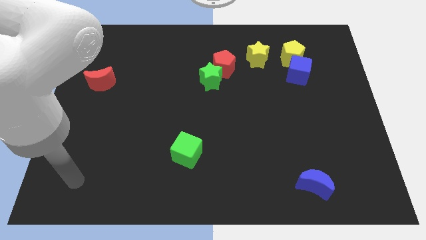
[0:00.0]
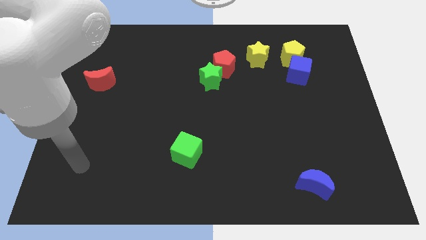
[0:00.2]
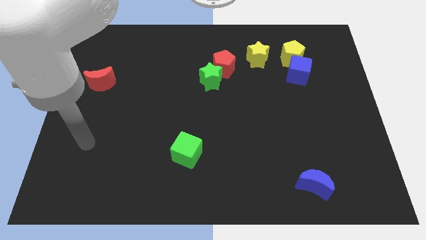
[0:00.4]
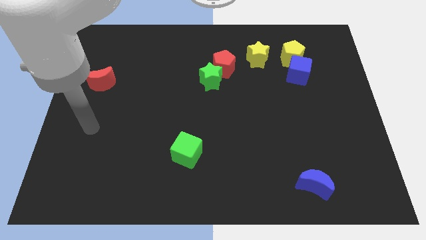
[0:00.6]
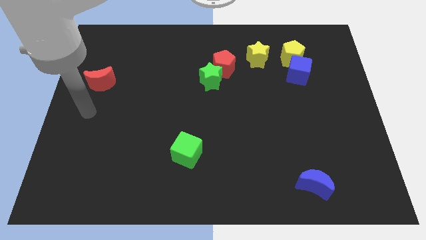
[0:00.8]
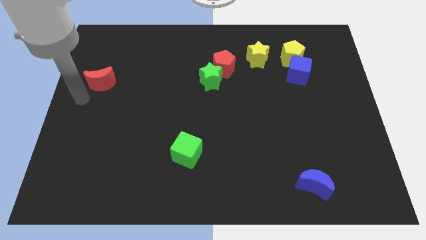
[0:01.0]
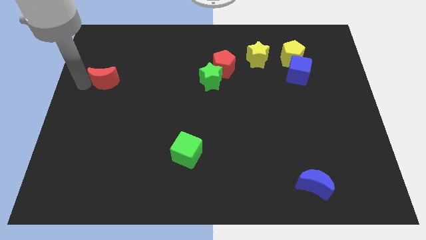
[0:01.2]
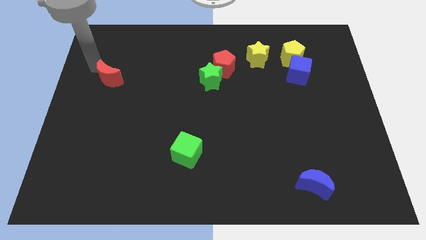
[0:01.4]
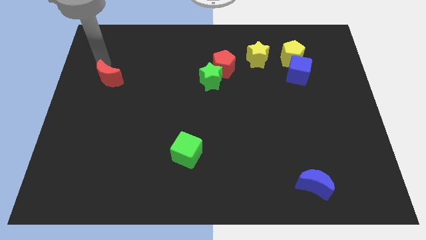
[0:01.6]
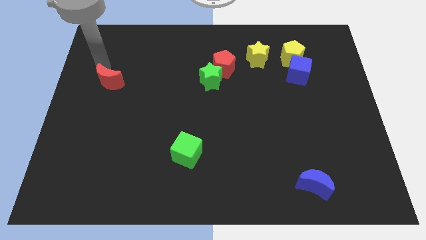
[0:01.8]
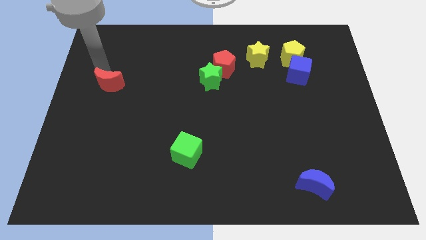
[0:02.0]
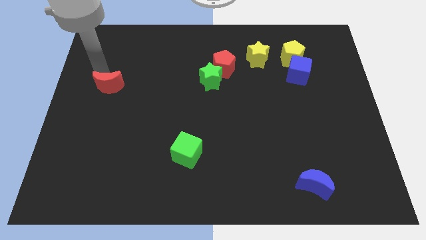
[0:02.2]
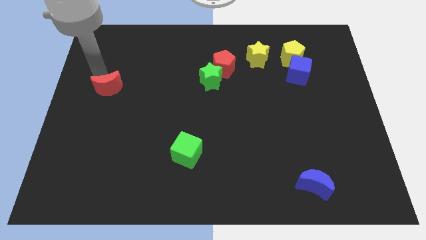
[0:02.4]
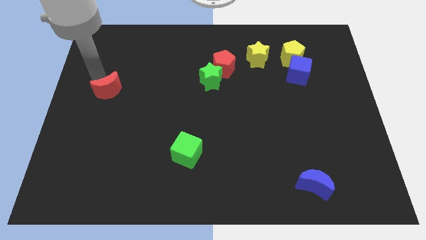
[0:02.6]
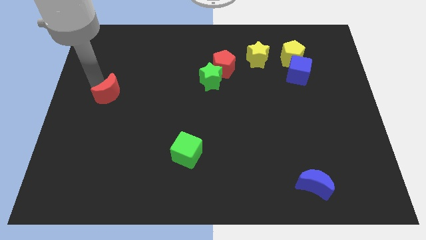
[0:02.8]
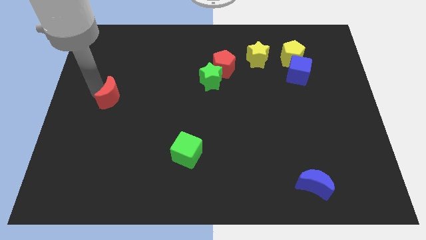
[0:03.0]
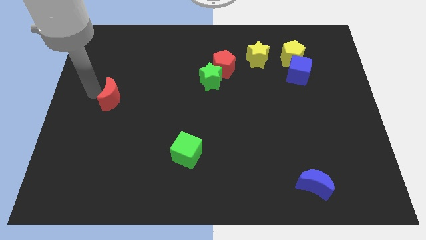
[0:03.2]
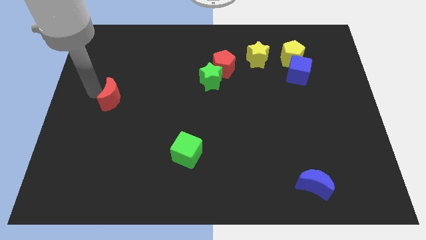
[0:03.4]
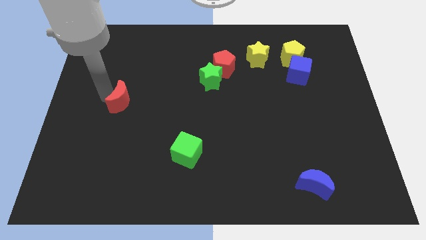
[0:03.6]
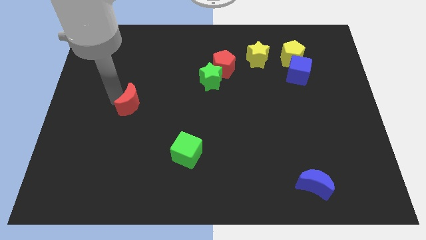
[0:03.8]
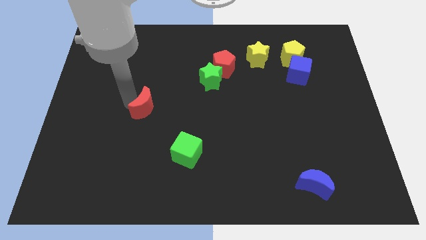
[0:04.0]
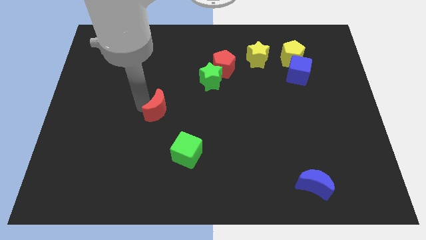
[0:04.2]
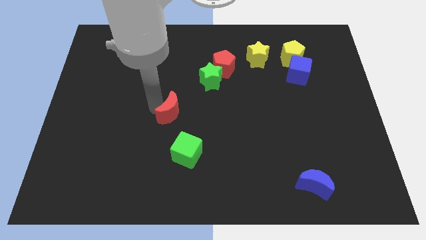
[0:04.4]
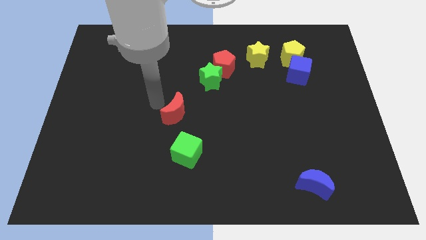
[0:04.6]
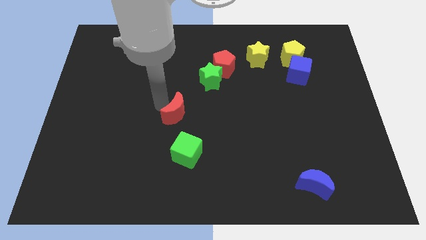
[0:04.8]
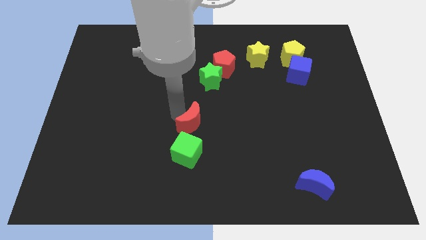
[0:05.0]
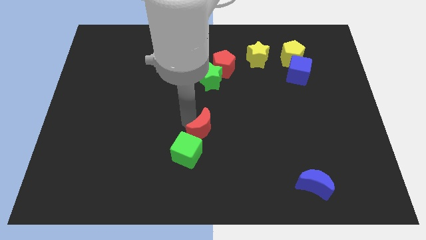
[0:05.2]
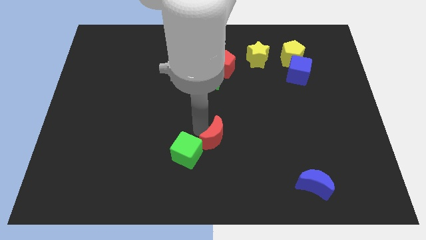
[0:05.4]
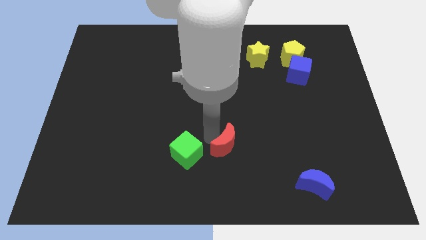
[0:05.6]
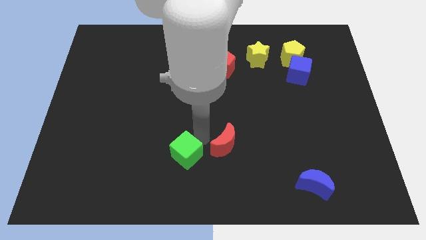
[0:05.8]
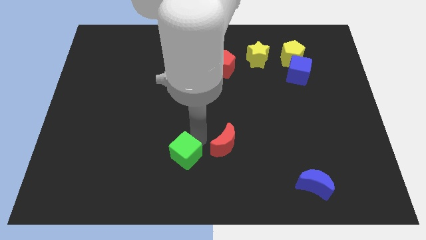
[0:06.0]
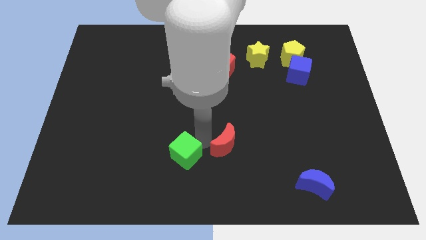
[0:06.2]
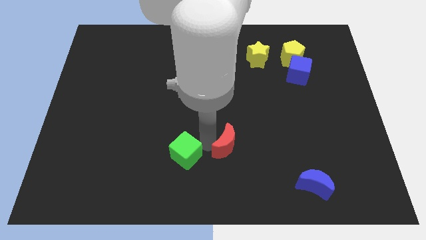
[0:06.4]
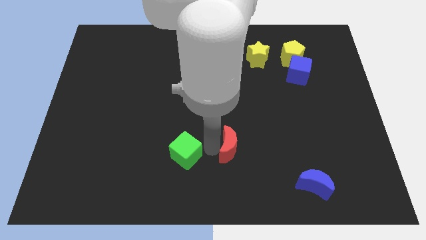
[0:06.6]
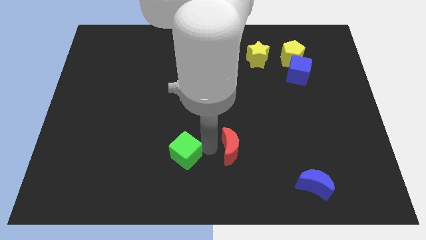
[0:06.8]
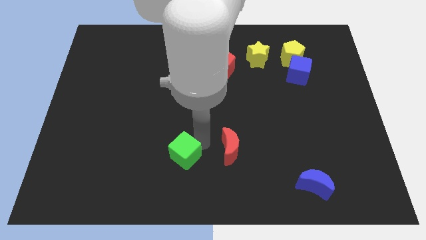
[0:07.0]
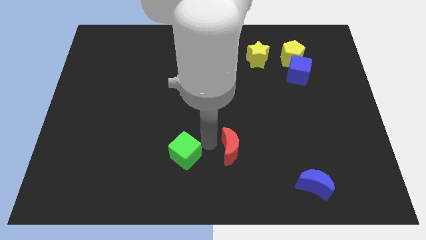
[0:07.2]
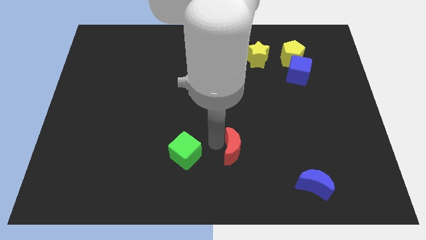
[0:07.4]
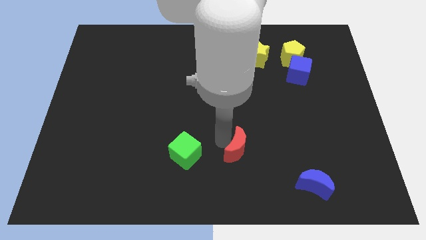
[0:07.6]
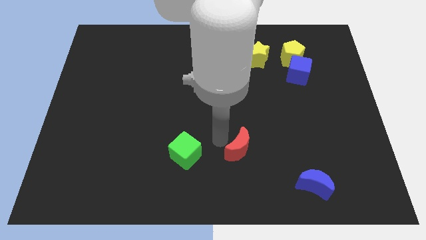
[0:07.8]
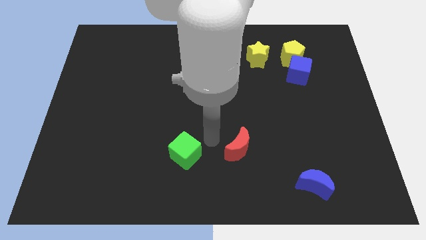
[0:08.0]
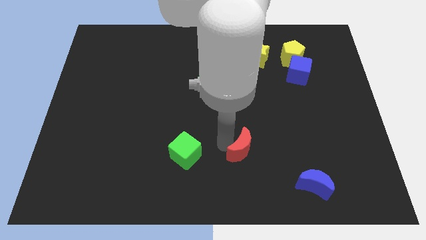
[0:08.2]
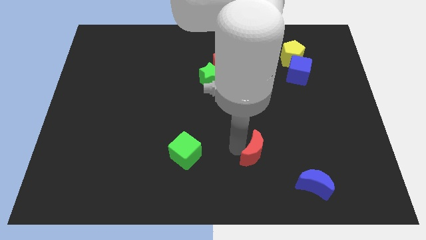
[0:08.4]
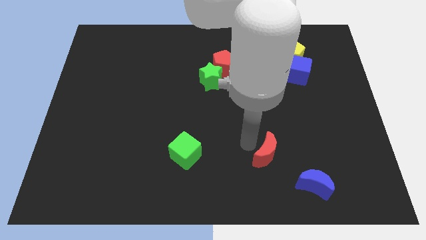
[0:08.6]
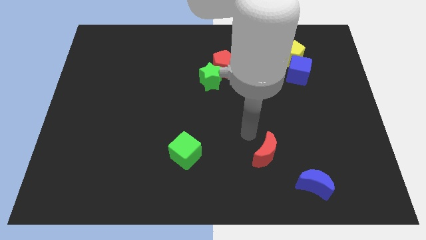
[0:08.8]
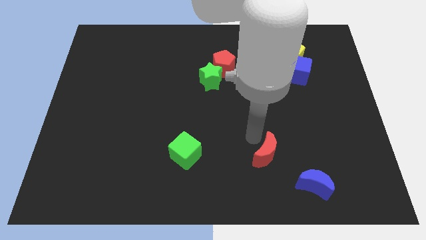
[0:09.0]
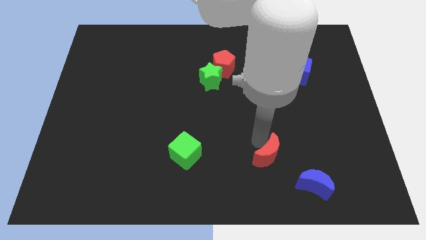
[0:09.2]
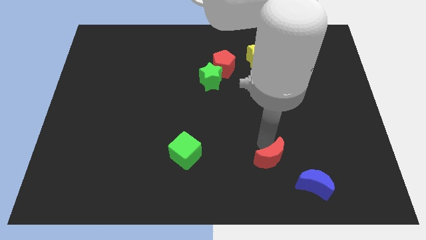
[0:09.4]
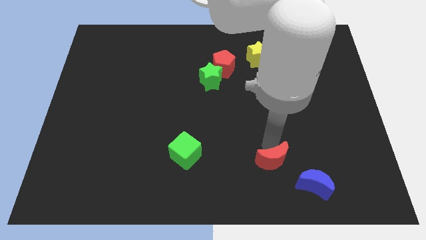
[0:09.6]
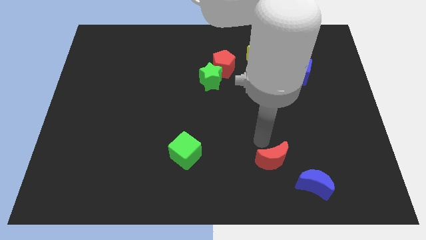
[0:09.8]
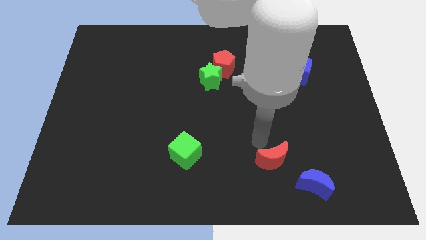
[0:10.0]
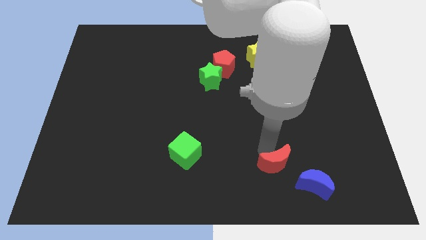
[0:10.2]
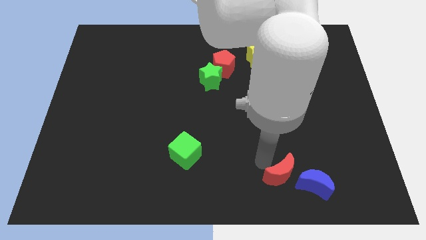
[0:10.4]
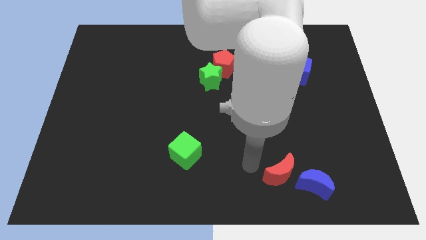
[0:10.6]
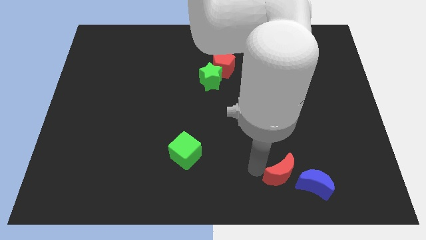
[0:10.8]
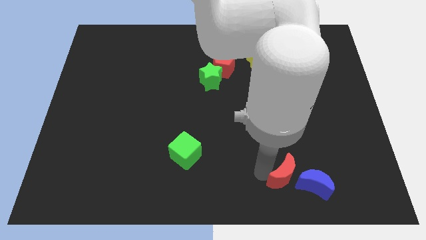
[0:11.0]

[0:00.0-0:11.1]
slide the red moon next to the blue moon

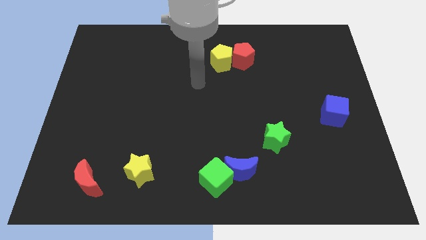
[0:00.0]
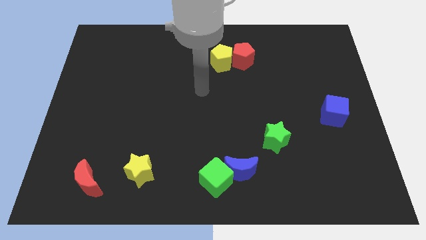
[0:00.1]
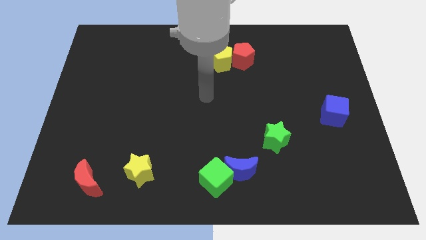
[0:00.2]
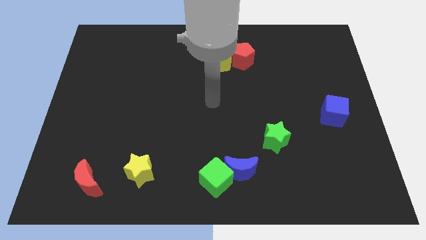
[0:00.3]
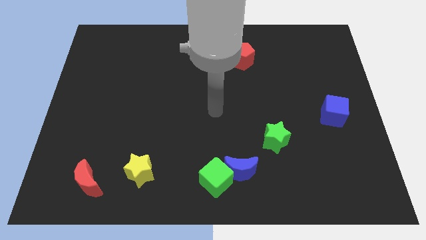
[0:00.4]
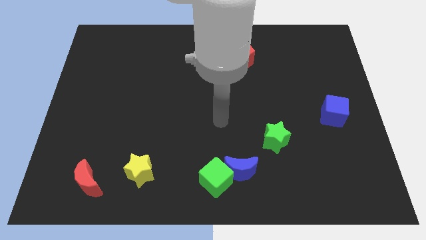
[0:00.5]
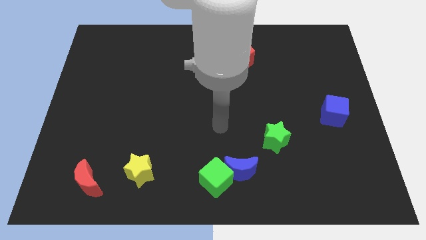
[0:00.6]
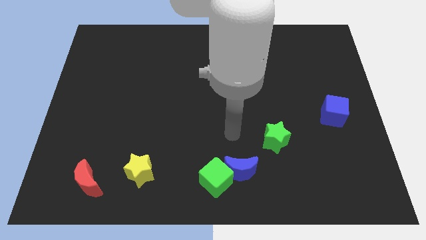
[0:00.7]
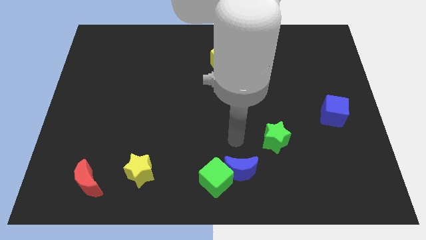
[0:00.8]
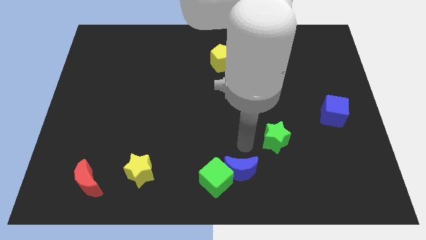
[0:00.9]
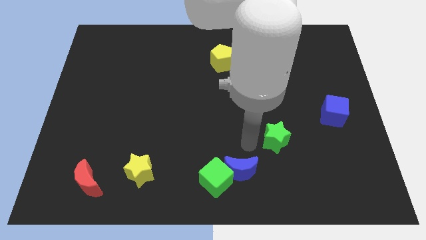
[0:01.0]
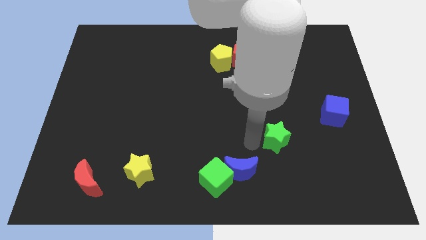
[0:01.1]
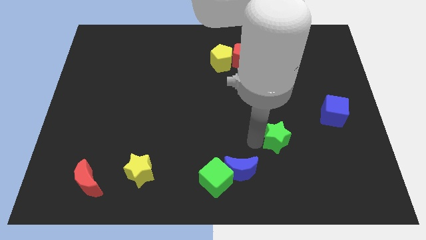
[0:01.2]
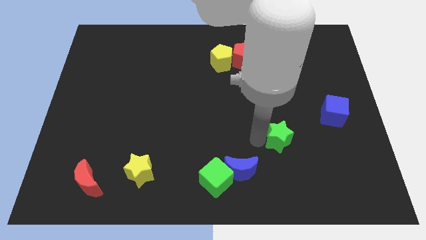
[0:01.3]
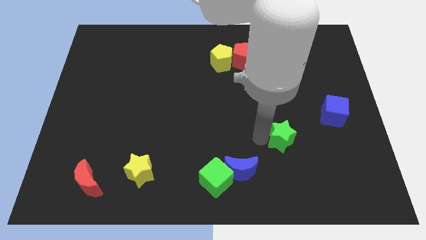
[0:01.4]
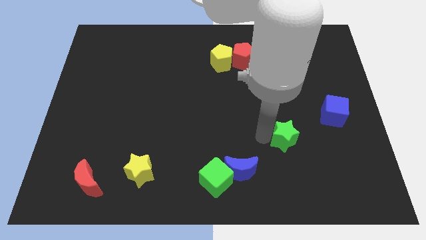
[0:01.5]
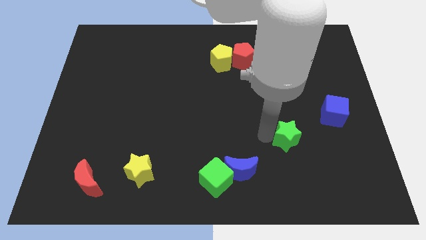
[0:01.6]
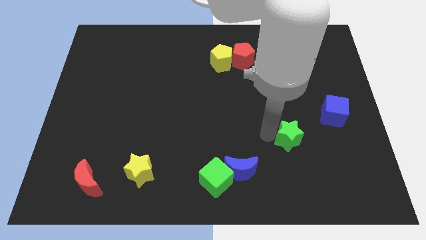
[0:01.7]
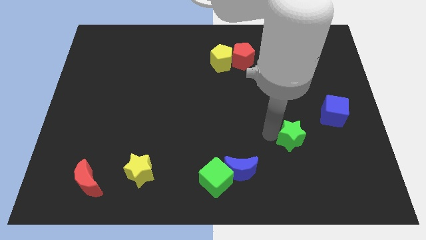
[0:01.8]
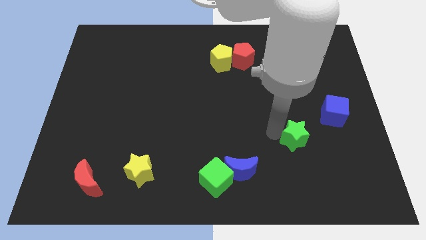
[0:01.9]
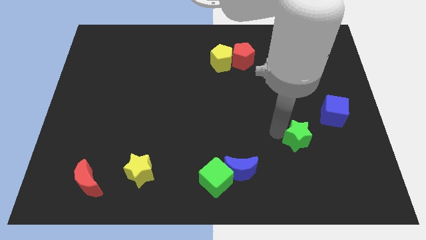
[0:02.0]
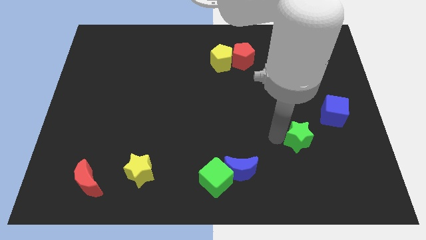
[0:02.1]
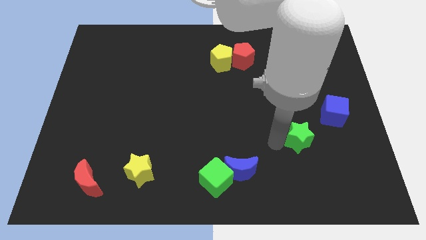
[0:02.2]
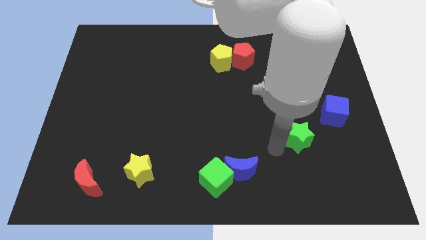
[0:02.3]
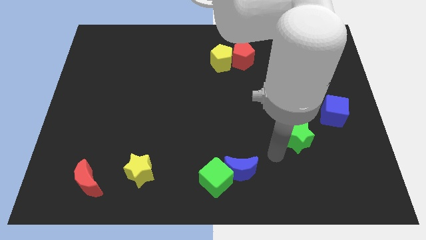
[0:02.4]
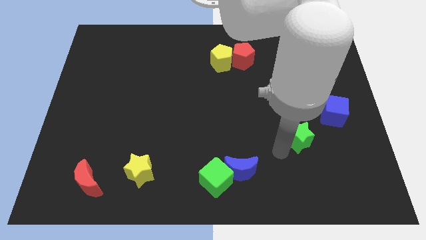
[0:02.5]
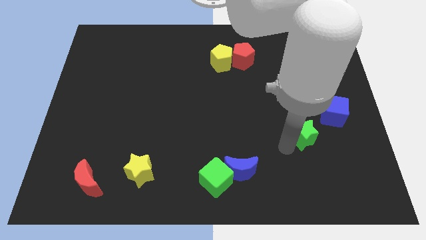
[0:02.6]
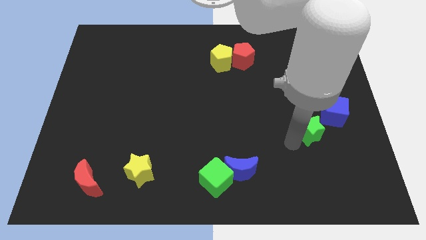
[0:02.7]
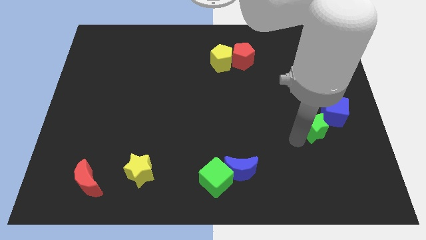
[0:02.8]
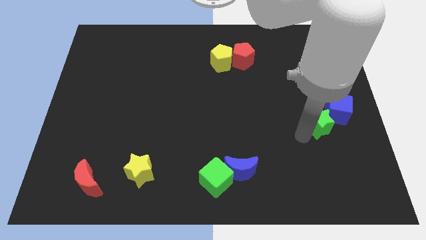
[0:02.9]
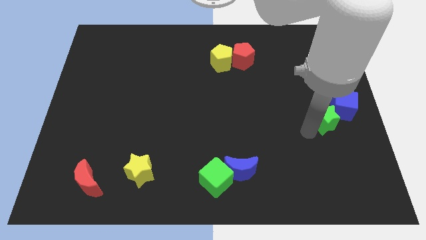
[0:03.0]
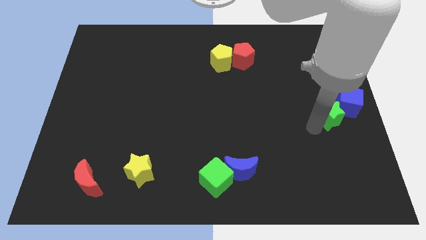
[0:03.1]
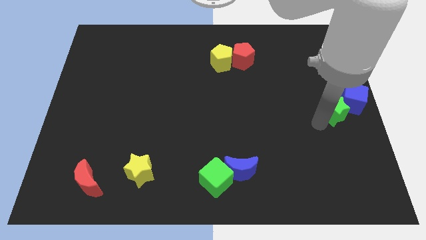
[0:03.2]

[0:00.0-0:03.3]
slide the green star next to the blue cube
